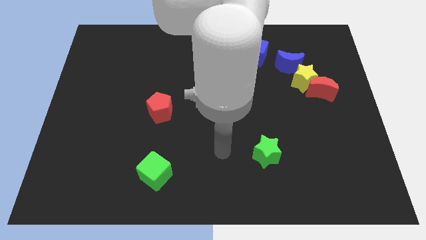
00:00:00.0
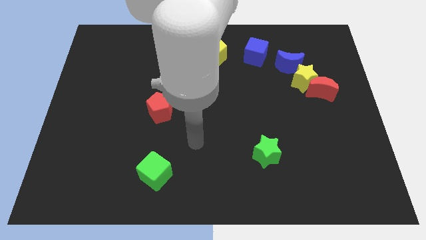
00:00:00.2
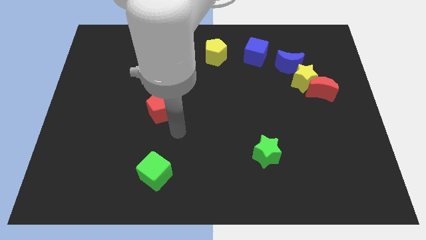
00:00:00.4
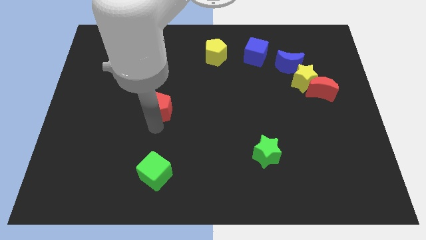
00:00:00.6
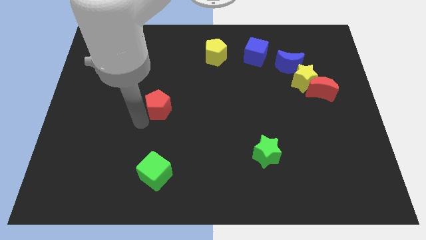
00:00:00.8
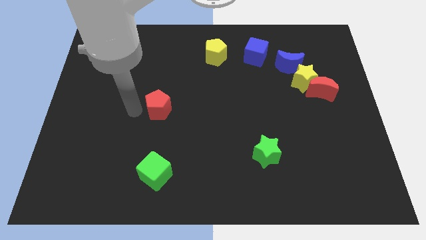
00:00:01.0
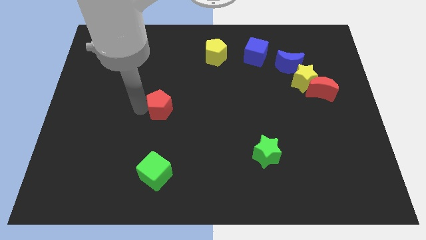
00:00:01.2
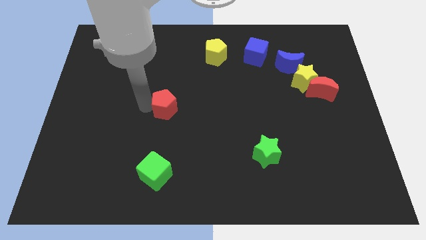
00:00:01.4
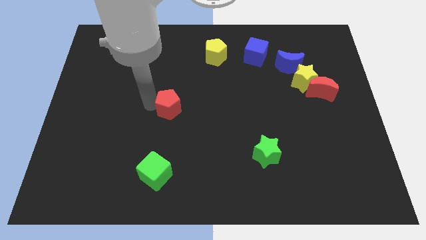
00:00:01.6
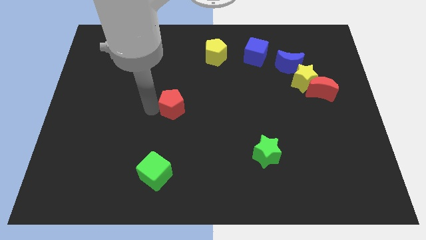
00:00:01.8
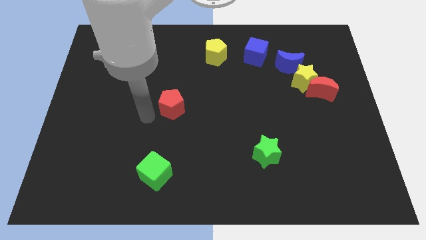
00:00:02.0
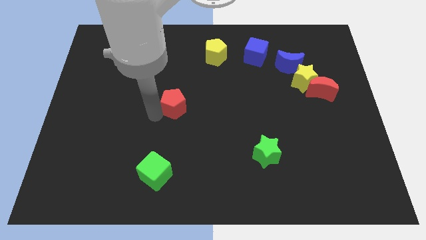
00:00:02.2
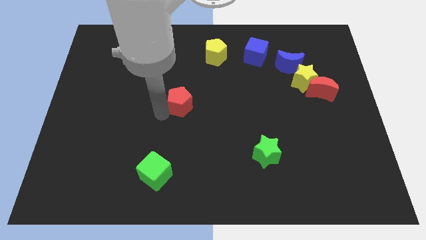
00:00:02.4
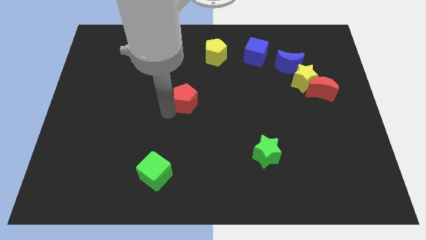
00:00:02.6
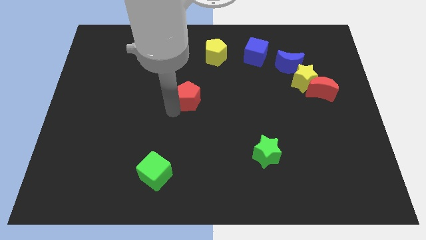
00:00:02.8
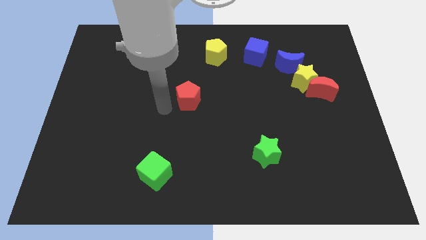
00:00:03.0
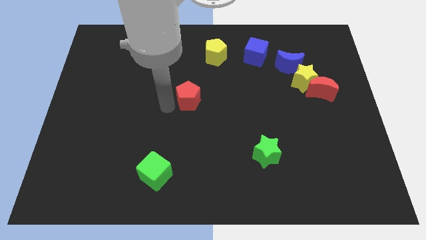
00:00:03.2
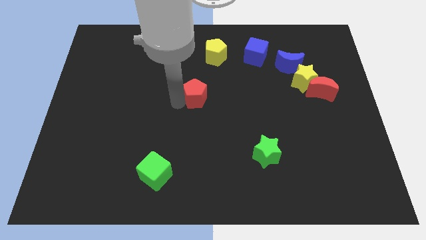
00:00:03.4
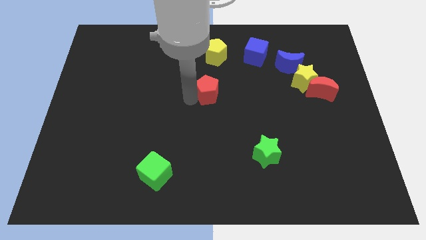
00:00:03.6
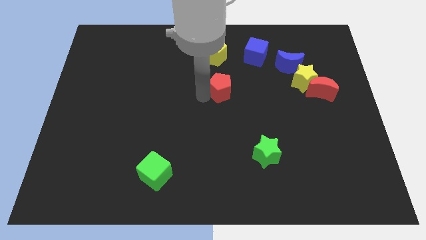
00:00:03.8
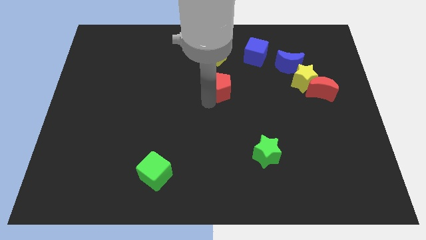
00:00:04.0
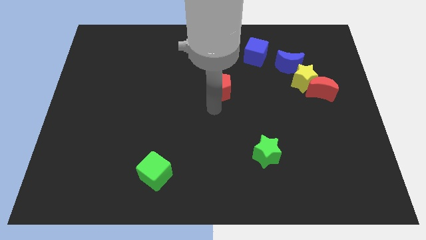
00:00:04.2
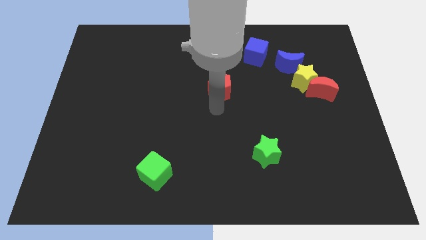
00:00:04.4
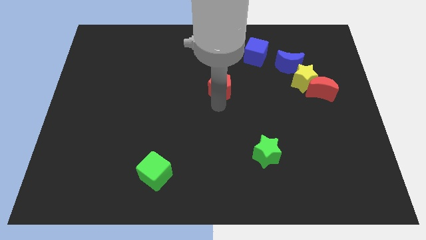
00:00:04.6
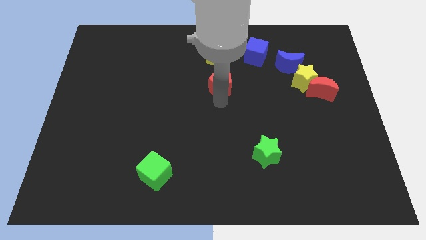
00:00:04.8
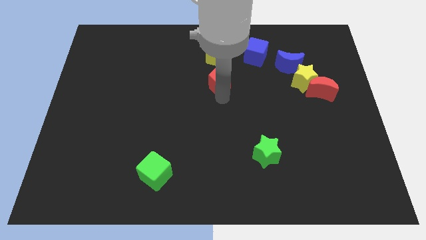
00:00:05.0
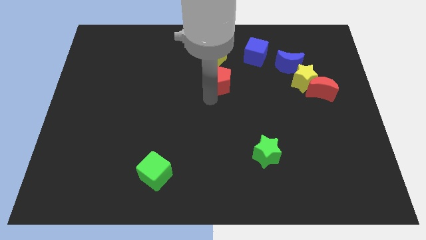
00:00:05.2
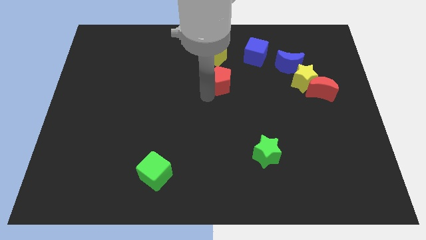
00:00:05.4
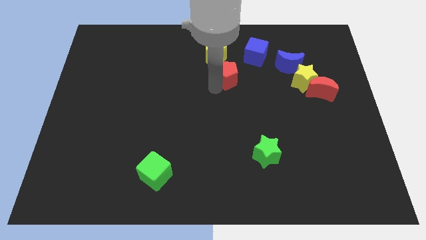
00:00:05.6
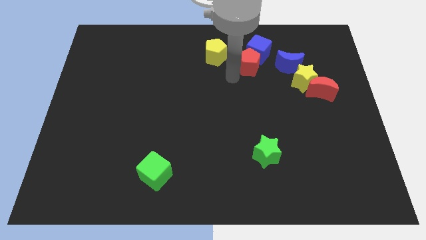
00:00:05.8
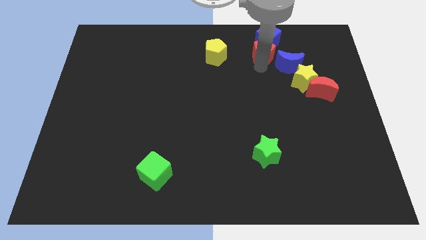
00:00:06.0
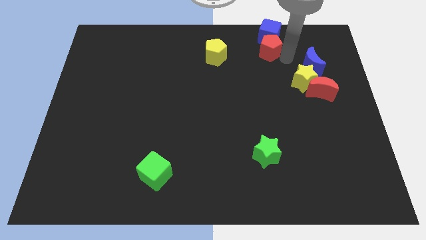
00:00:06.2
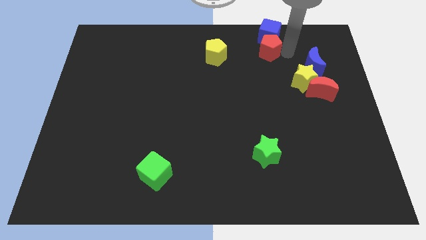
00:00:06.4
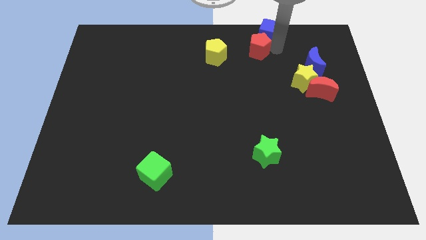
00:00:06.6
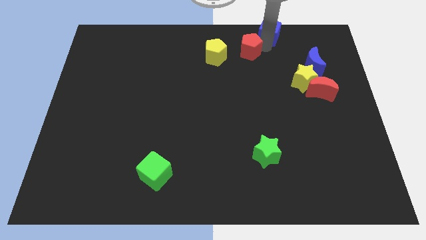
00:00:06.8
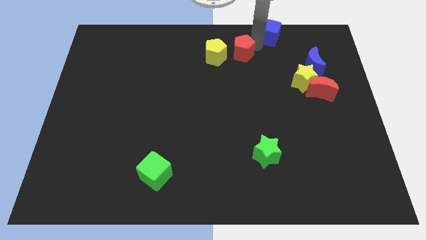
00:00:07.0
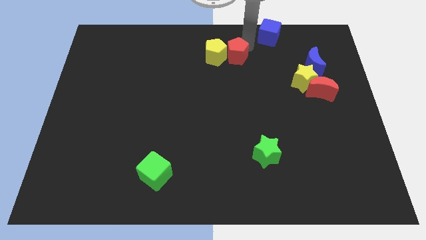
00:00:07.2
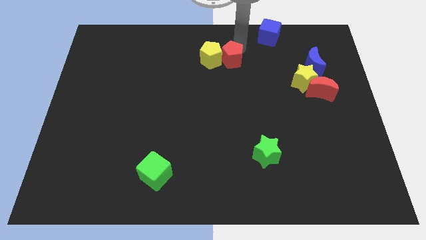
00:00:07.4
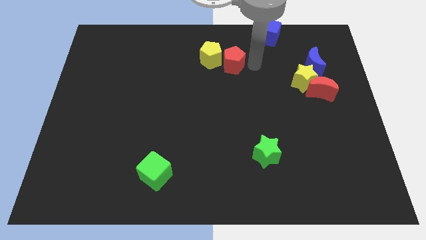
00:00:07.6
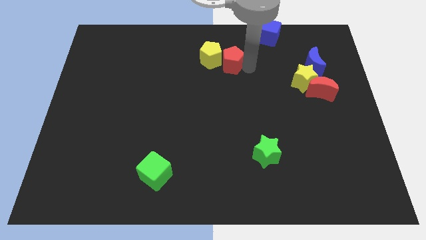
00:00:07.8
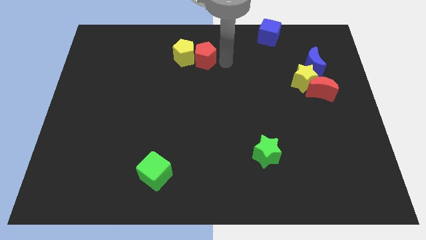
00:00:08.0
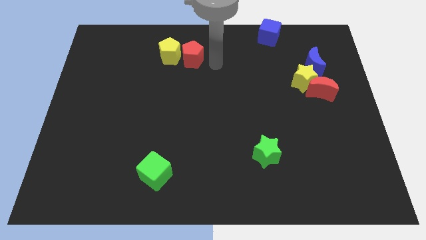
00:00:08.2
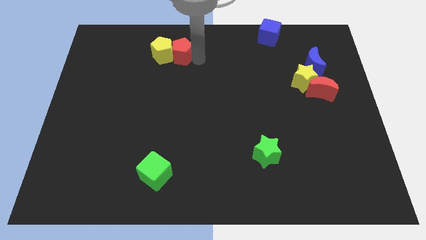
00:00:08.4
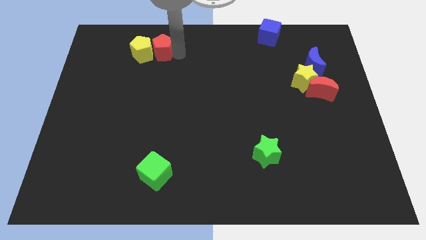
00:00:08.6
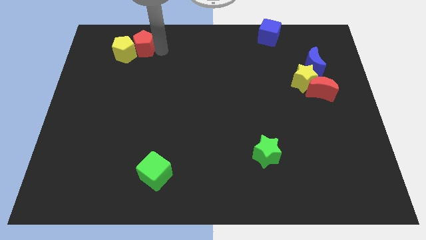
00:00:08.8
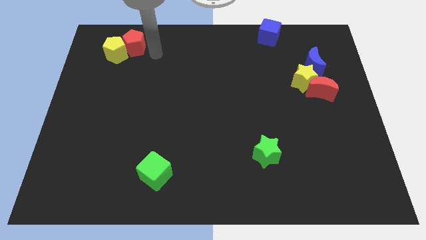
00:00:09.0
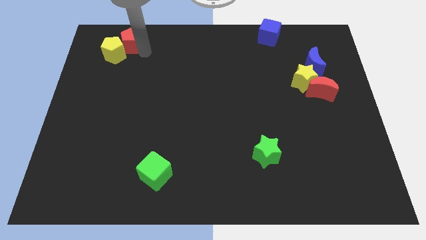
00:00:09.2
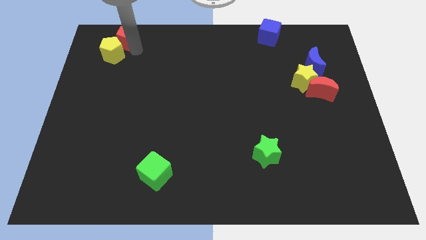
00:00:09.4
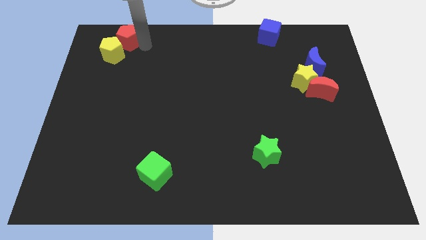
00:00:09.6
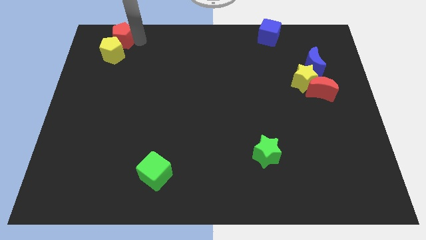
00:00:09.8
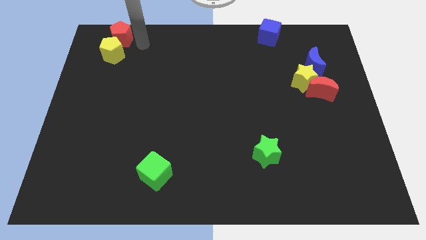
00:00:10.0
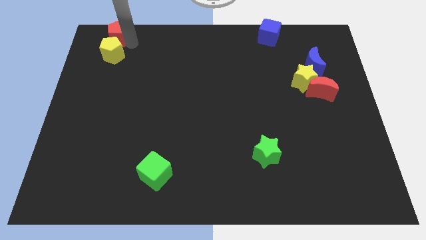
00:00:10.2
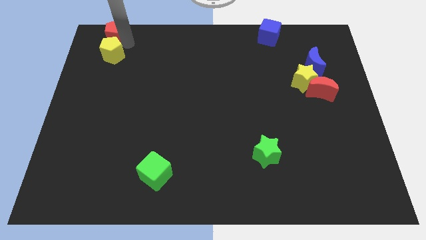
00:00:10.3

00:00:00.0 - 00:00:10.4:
slide the red pentagon to the upper left corner

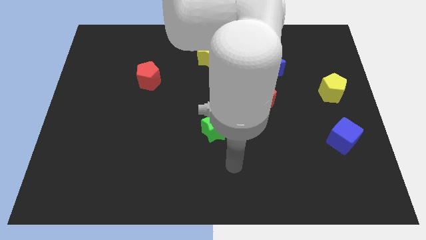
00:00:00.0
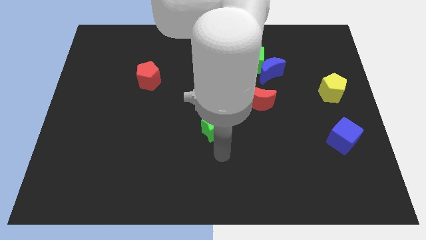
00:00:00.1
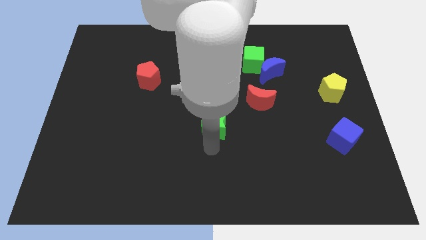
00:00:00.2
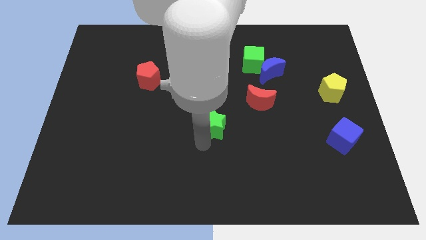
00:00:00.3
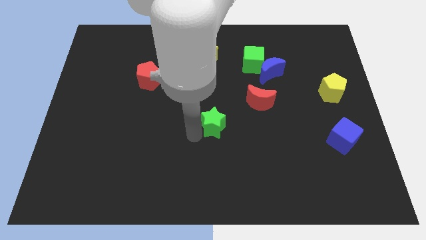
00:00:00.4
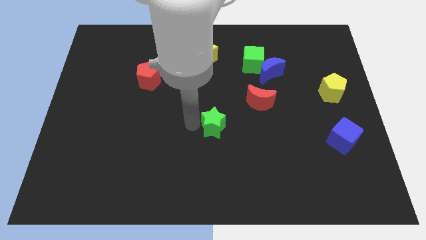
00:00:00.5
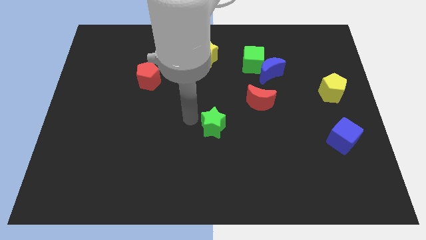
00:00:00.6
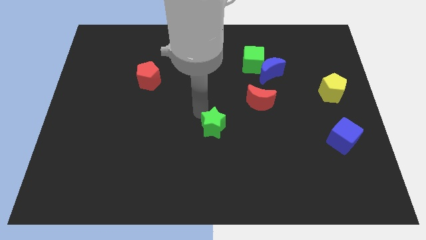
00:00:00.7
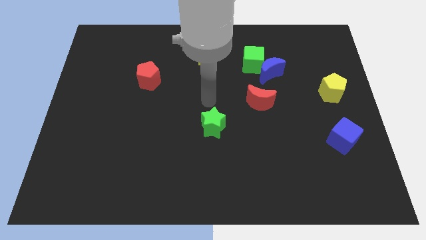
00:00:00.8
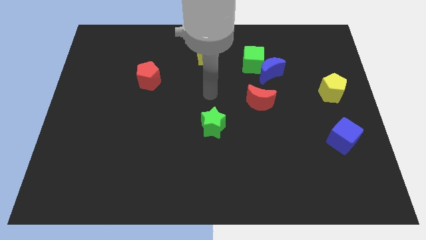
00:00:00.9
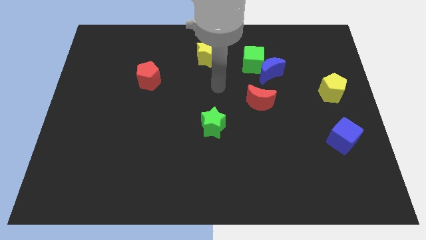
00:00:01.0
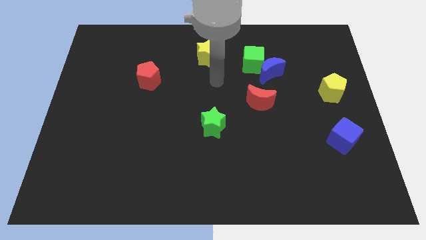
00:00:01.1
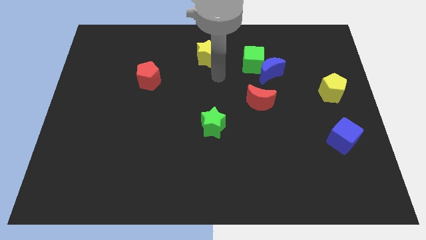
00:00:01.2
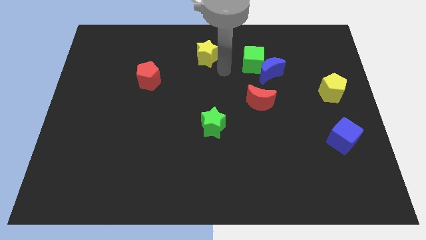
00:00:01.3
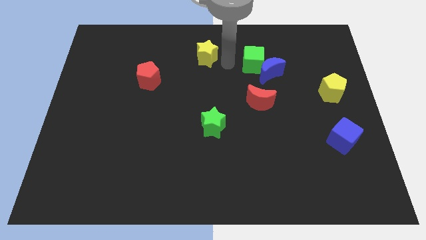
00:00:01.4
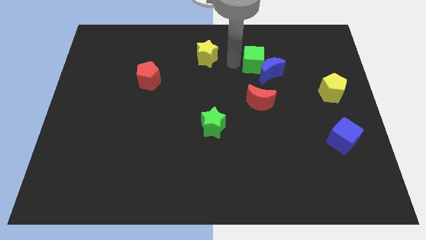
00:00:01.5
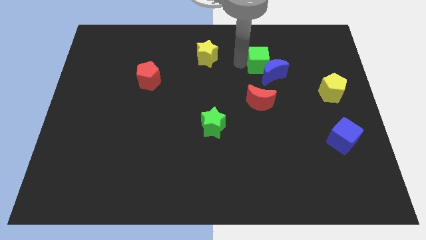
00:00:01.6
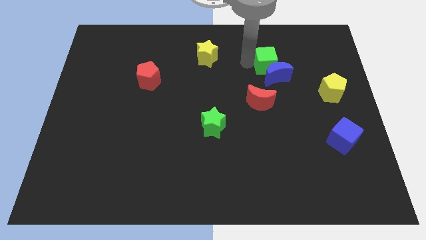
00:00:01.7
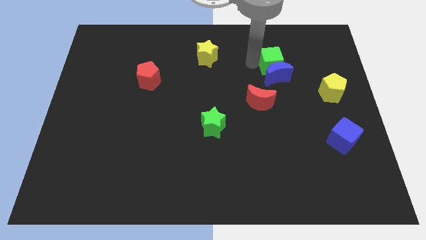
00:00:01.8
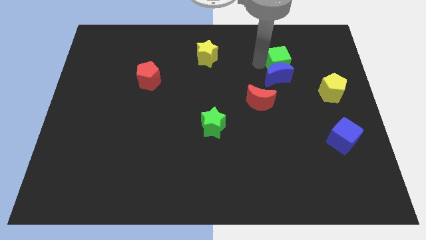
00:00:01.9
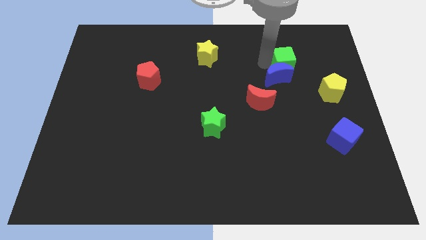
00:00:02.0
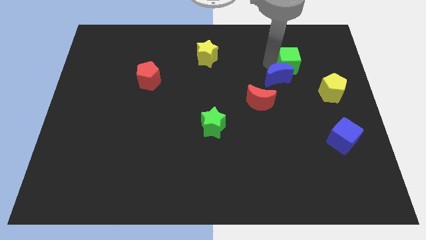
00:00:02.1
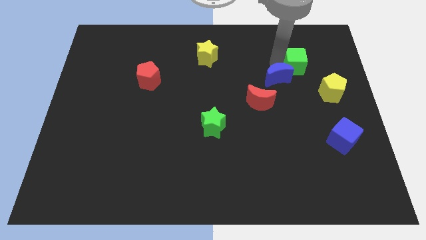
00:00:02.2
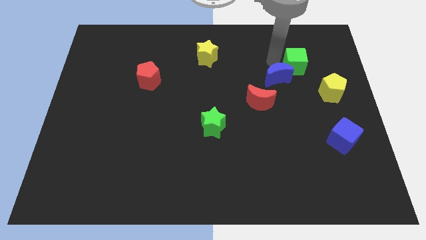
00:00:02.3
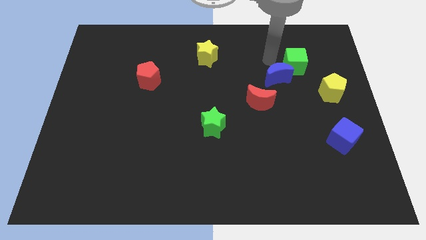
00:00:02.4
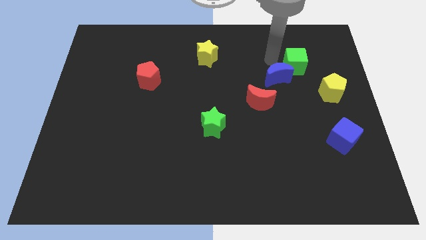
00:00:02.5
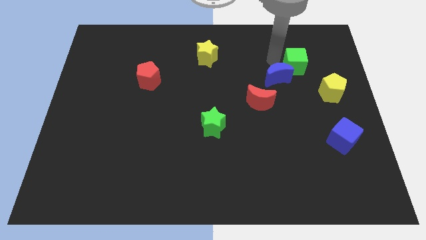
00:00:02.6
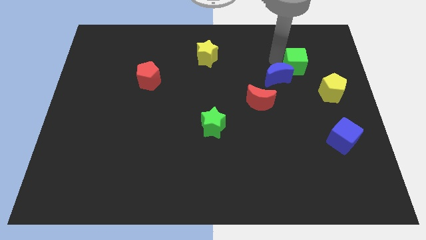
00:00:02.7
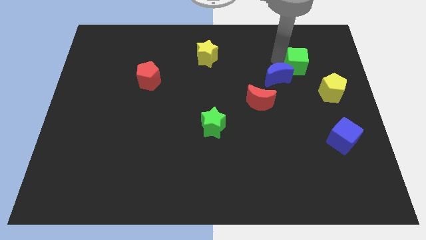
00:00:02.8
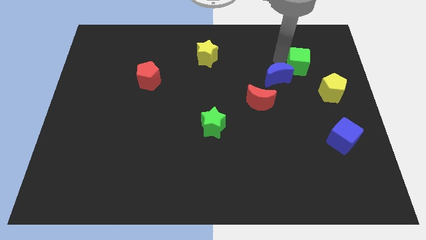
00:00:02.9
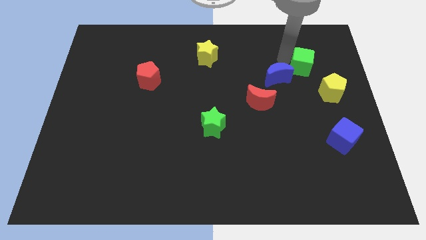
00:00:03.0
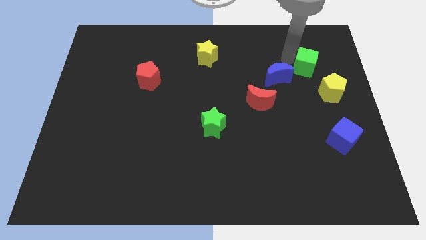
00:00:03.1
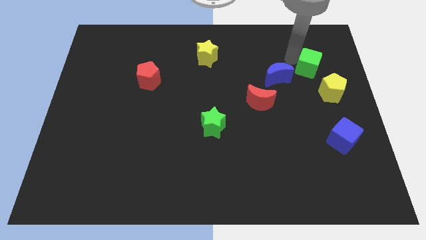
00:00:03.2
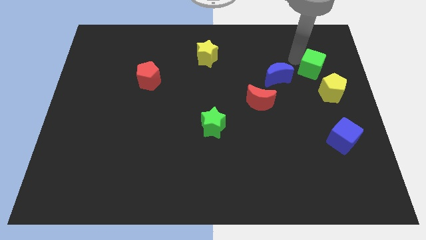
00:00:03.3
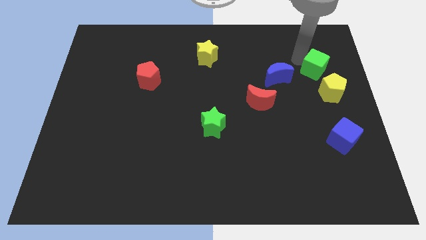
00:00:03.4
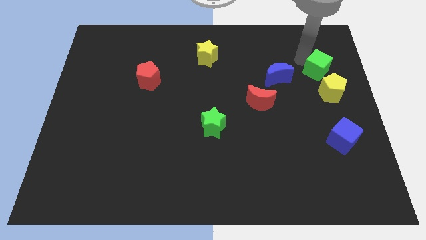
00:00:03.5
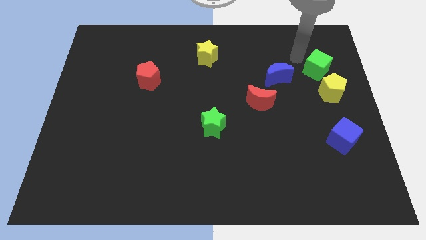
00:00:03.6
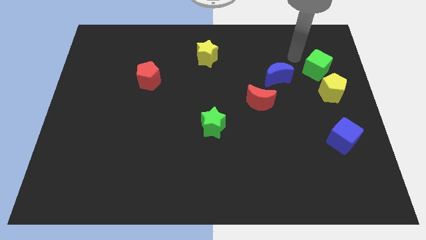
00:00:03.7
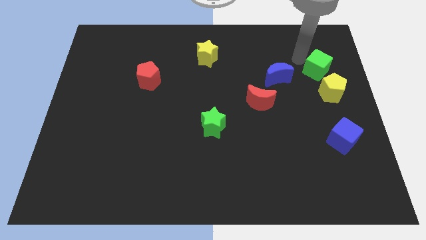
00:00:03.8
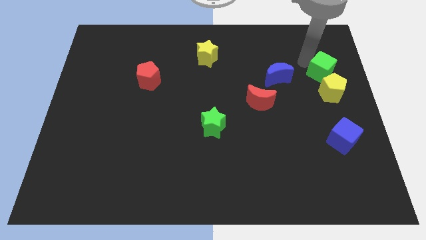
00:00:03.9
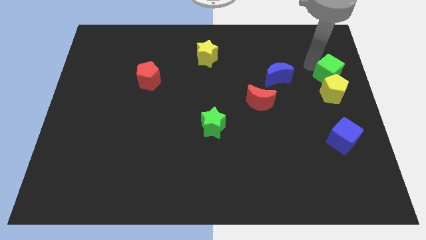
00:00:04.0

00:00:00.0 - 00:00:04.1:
push the green cube to the right side of the board
